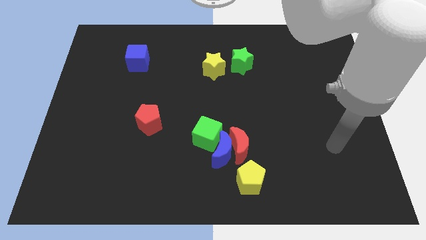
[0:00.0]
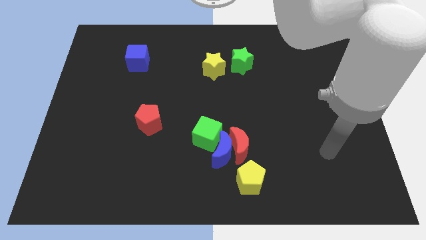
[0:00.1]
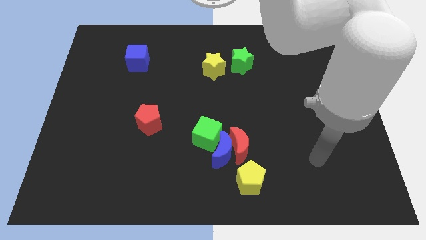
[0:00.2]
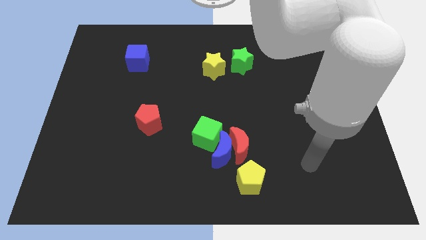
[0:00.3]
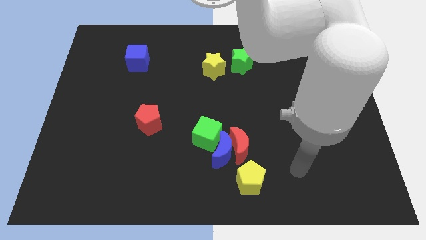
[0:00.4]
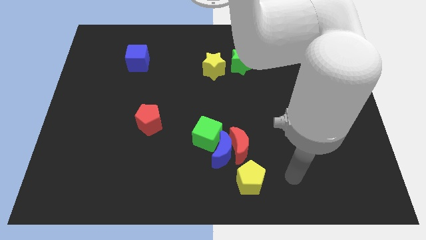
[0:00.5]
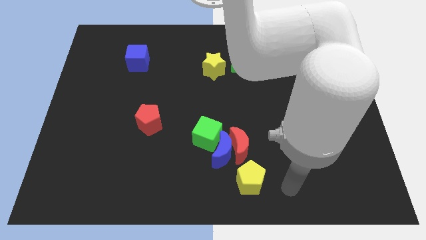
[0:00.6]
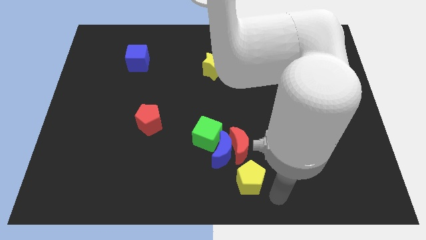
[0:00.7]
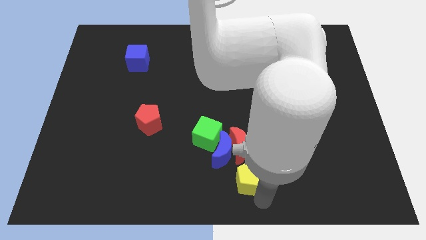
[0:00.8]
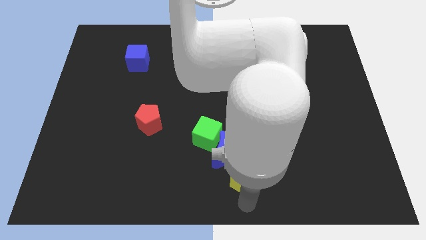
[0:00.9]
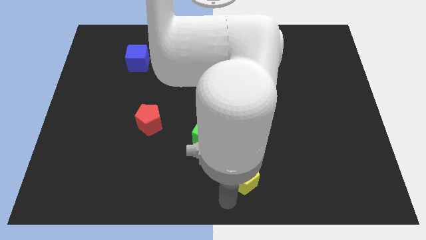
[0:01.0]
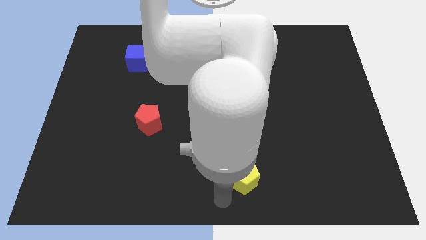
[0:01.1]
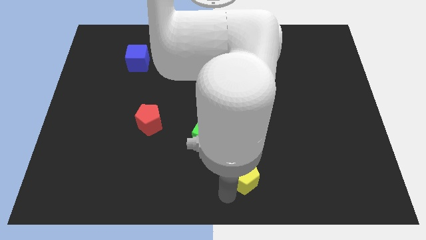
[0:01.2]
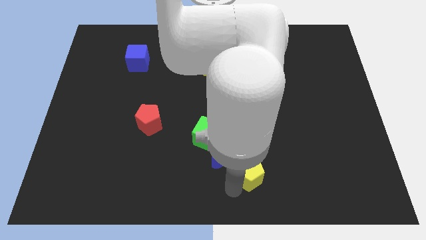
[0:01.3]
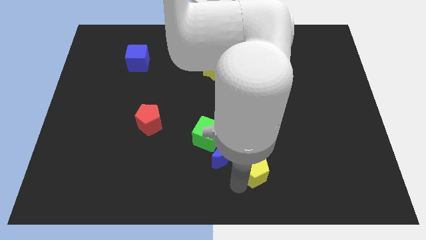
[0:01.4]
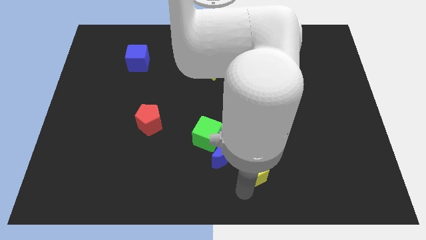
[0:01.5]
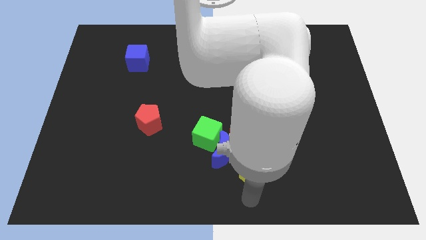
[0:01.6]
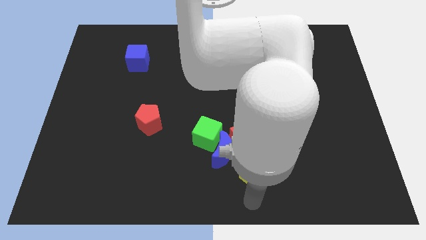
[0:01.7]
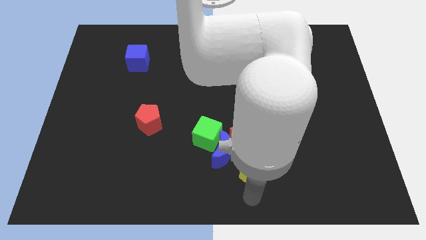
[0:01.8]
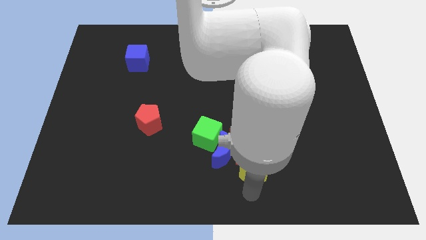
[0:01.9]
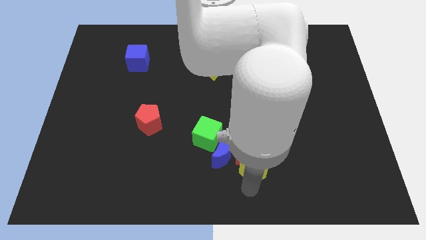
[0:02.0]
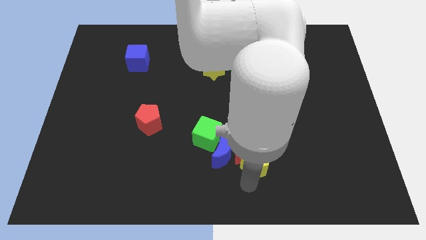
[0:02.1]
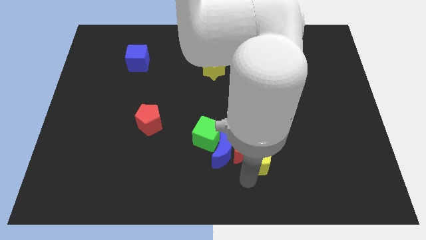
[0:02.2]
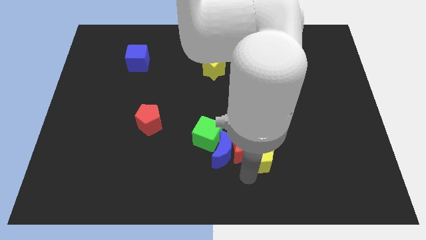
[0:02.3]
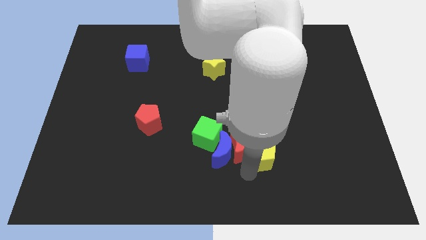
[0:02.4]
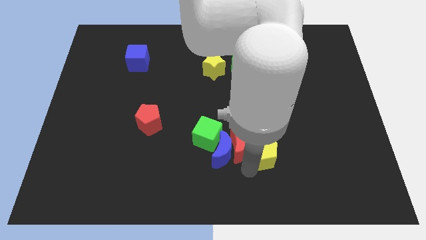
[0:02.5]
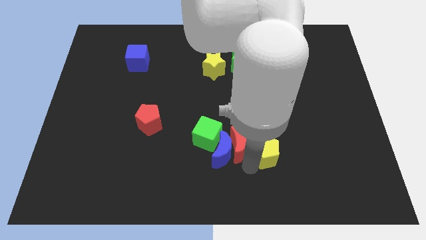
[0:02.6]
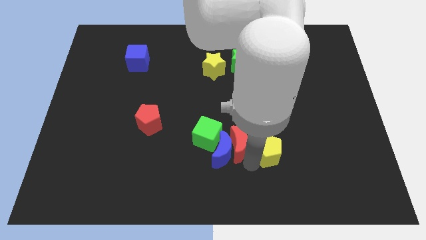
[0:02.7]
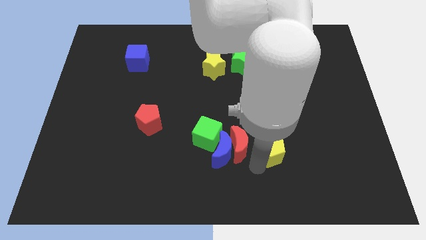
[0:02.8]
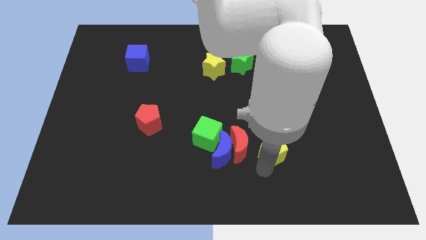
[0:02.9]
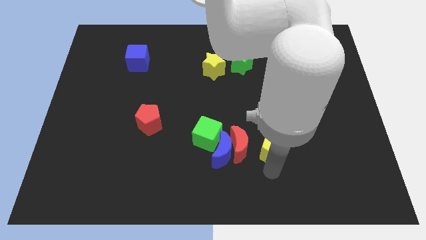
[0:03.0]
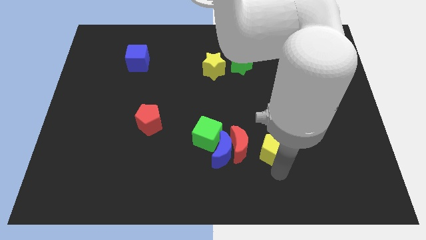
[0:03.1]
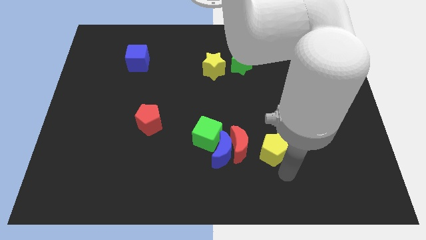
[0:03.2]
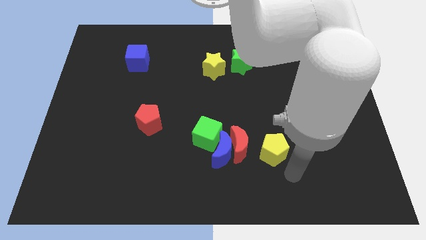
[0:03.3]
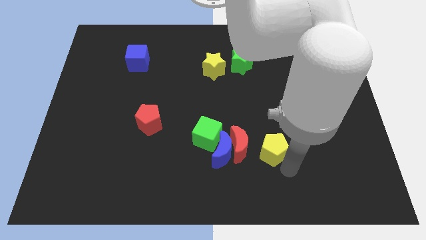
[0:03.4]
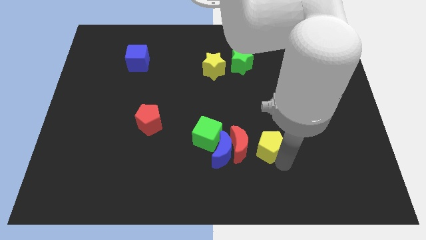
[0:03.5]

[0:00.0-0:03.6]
slightly push the yellow pentagon up

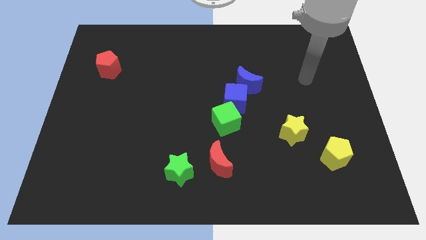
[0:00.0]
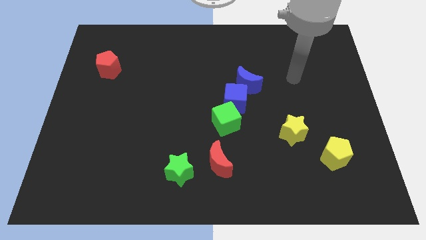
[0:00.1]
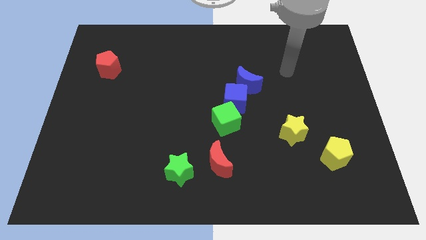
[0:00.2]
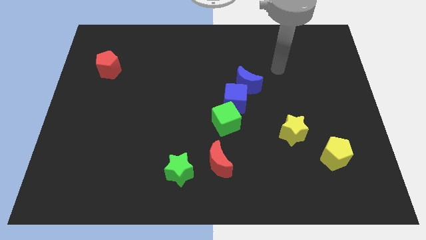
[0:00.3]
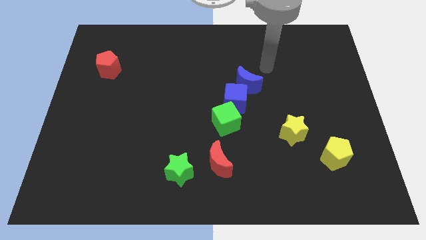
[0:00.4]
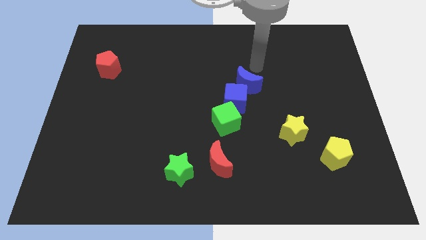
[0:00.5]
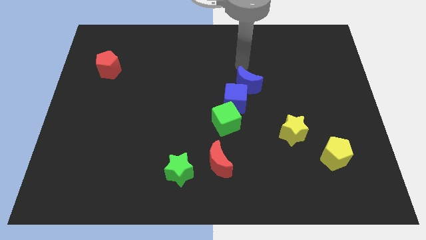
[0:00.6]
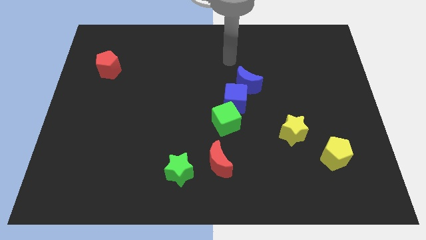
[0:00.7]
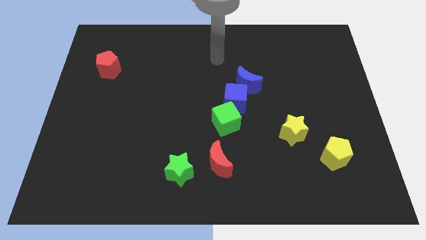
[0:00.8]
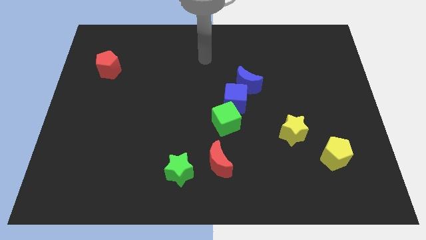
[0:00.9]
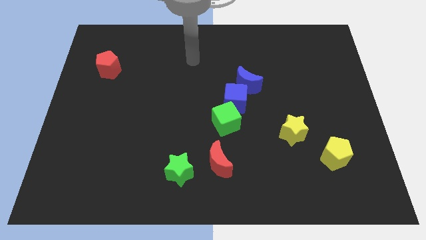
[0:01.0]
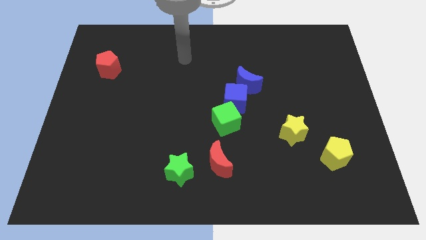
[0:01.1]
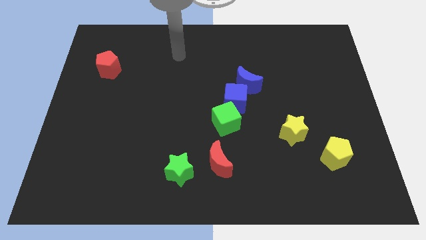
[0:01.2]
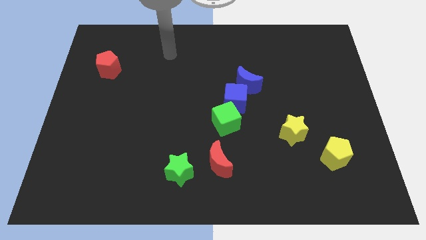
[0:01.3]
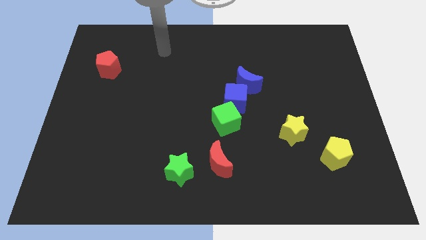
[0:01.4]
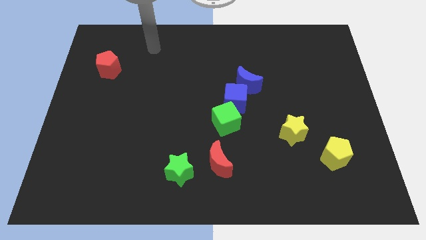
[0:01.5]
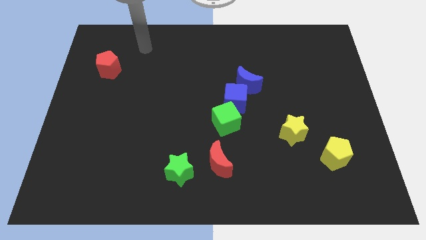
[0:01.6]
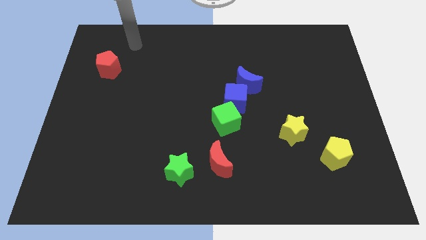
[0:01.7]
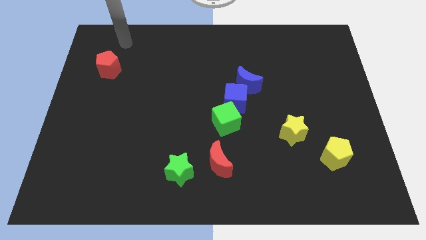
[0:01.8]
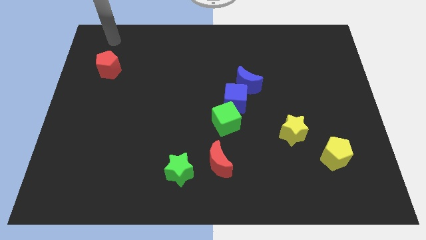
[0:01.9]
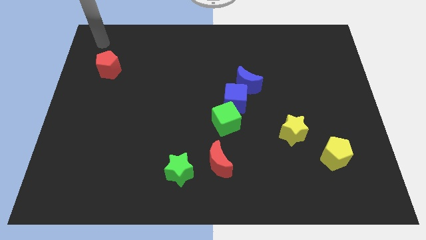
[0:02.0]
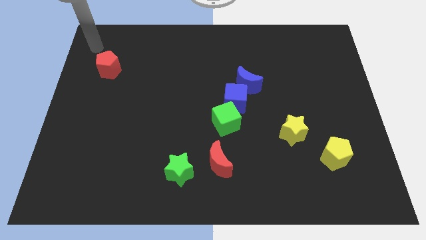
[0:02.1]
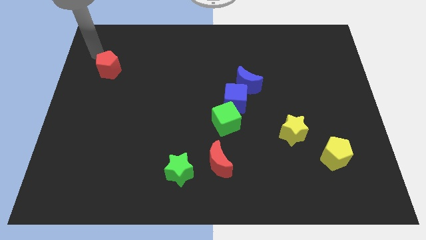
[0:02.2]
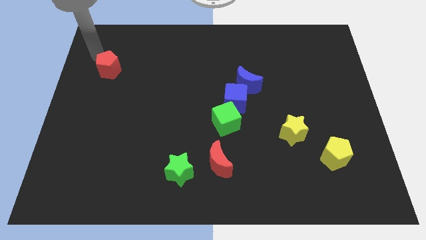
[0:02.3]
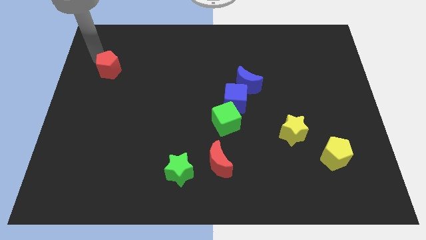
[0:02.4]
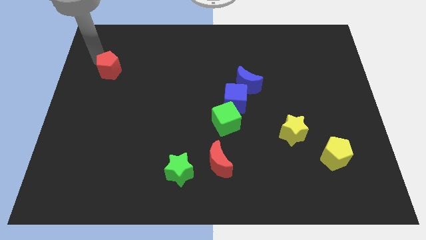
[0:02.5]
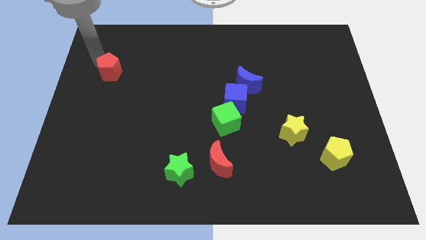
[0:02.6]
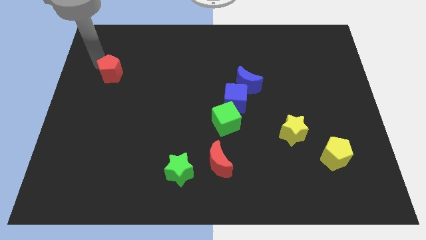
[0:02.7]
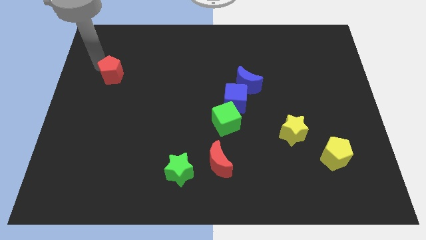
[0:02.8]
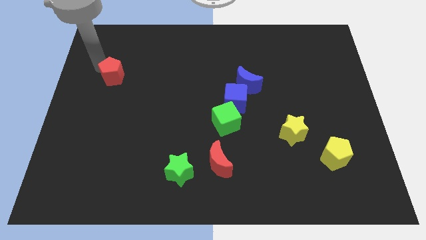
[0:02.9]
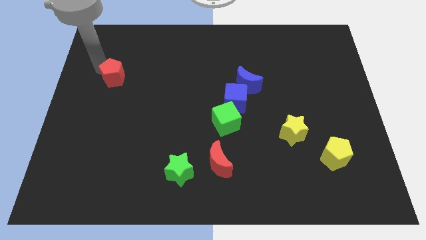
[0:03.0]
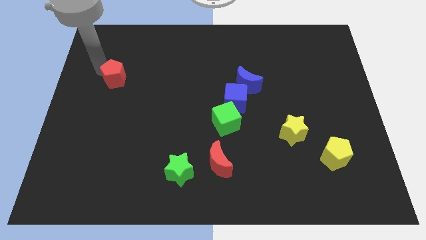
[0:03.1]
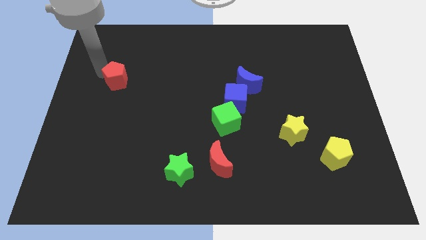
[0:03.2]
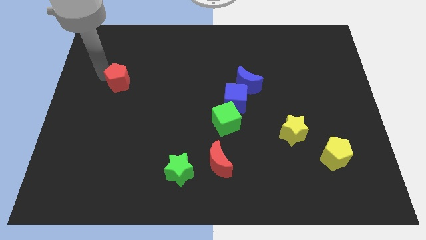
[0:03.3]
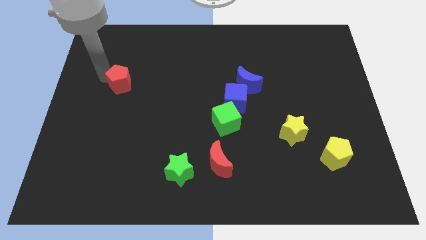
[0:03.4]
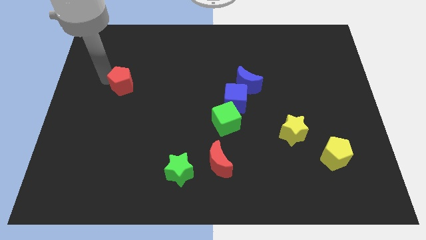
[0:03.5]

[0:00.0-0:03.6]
move the red pentagon somewhat diagonally down and to the right

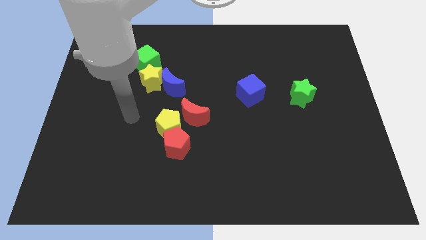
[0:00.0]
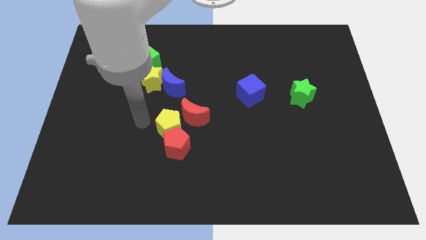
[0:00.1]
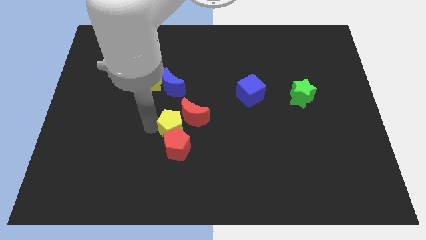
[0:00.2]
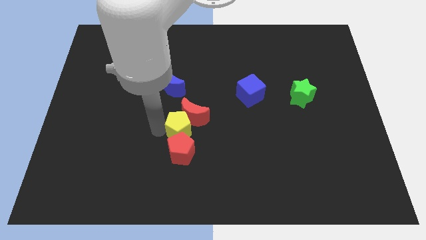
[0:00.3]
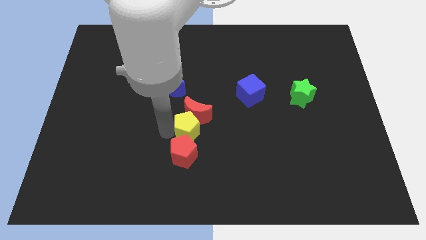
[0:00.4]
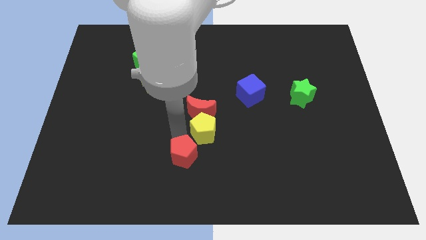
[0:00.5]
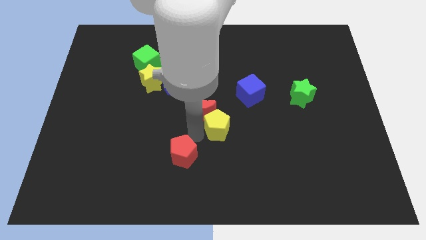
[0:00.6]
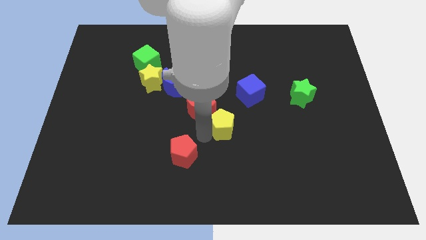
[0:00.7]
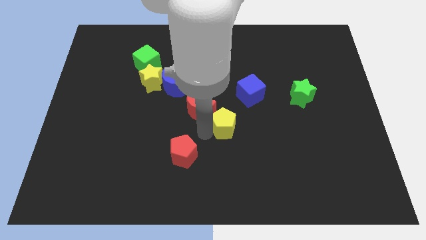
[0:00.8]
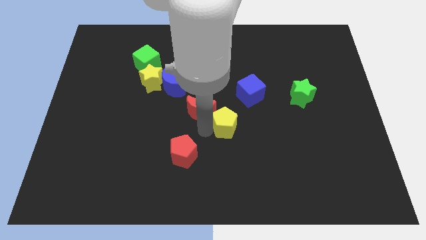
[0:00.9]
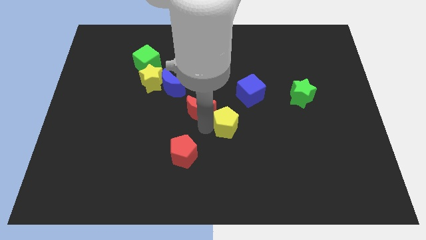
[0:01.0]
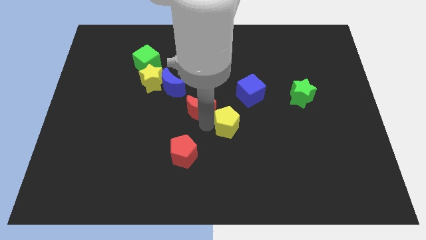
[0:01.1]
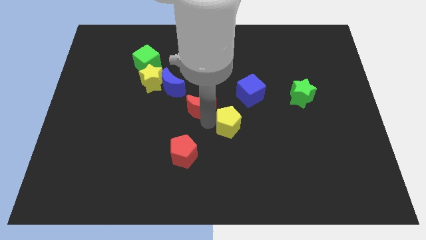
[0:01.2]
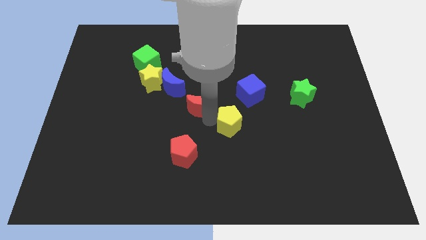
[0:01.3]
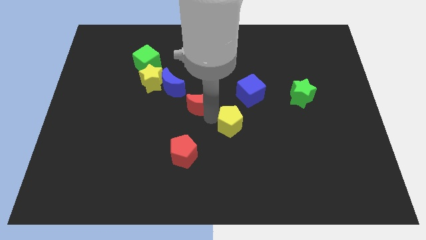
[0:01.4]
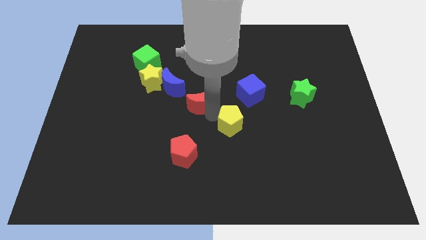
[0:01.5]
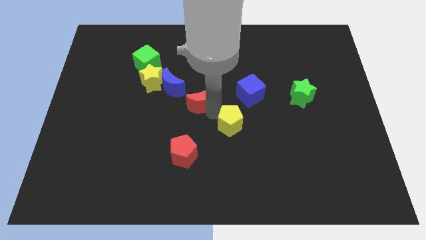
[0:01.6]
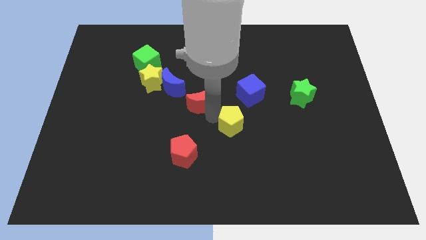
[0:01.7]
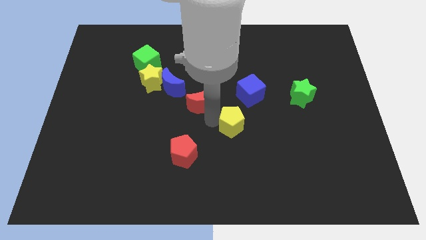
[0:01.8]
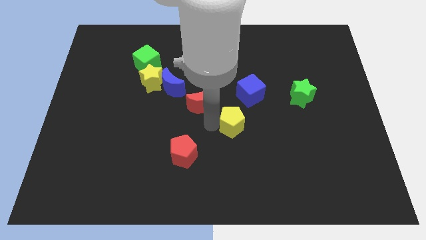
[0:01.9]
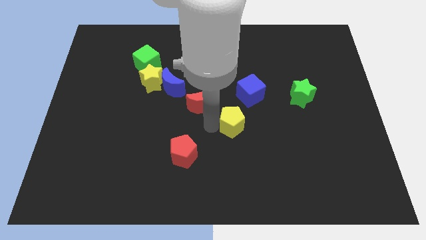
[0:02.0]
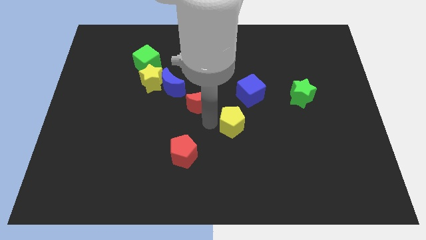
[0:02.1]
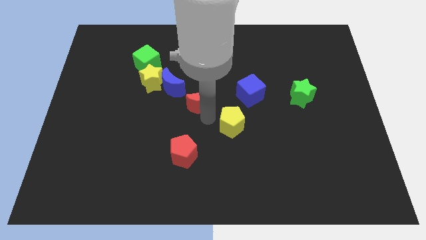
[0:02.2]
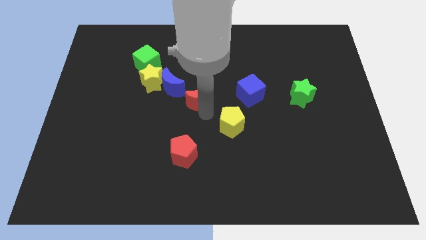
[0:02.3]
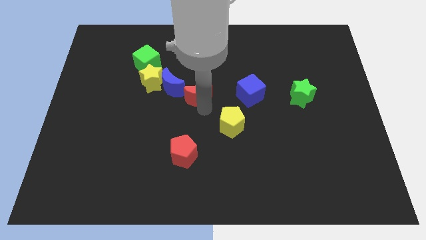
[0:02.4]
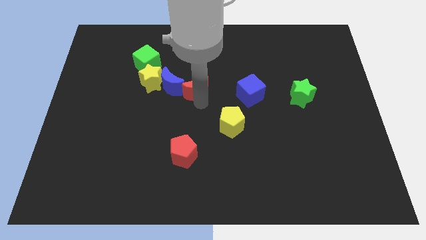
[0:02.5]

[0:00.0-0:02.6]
move the red moon up a little
